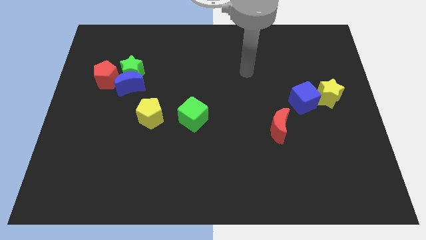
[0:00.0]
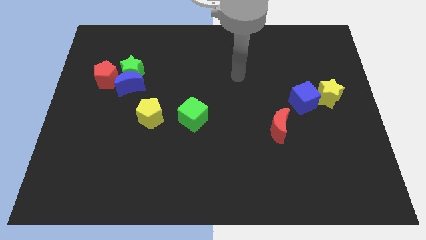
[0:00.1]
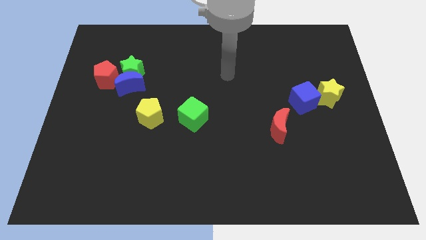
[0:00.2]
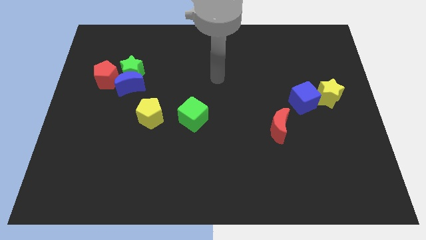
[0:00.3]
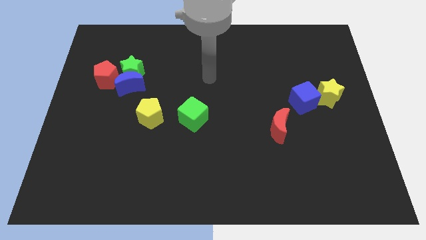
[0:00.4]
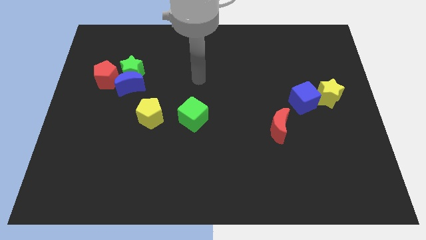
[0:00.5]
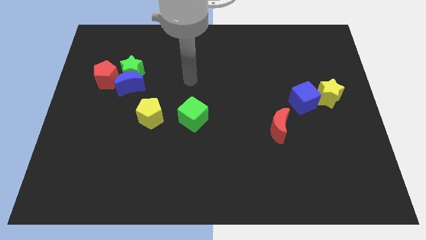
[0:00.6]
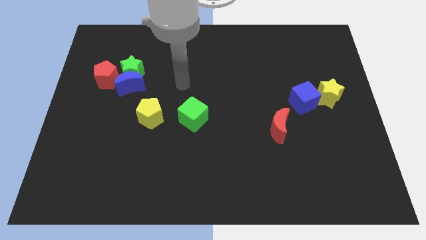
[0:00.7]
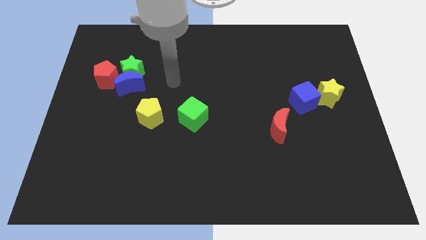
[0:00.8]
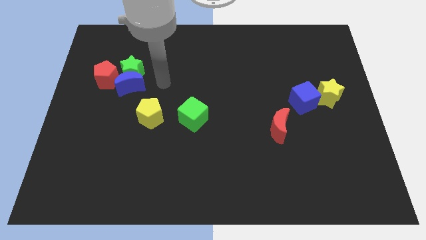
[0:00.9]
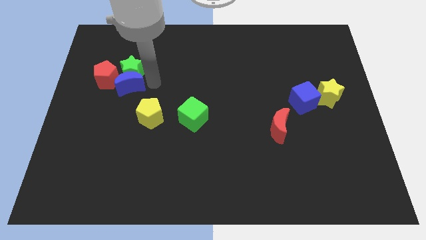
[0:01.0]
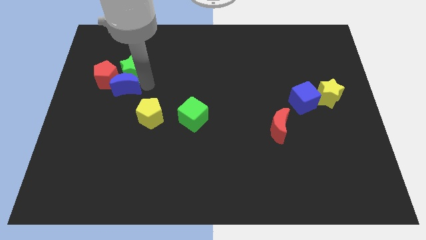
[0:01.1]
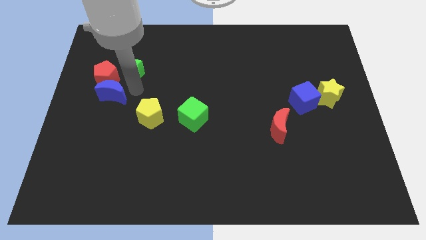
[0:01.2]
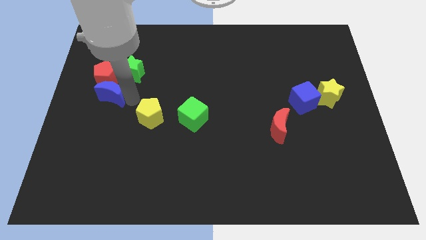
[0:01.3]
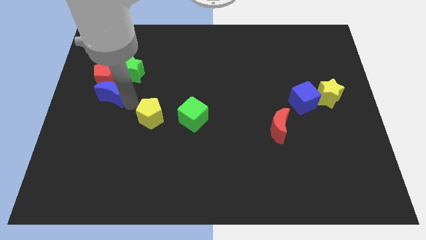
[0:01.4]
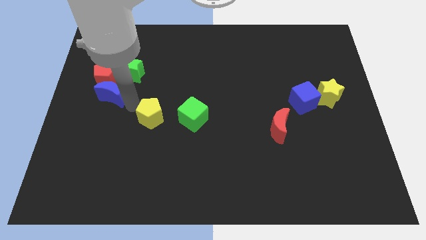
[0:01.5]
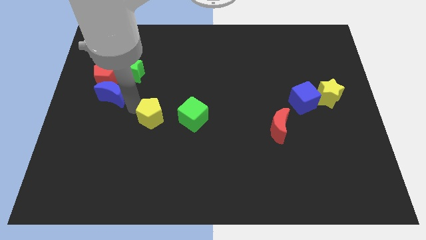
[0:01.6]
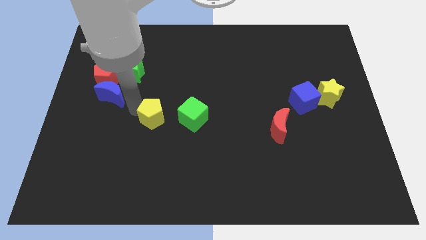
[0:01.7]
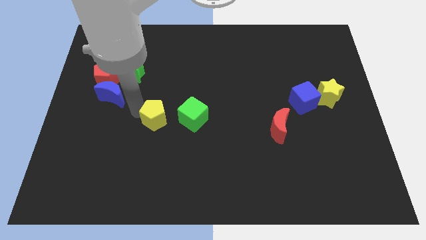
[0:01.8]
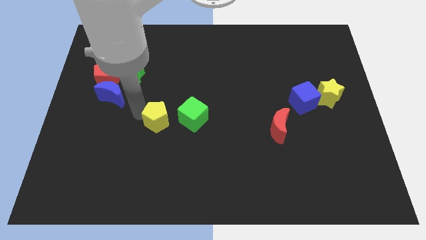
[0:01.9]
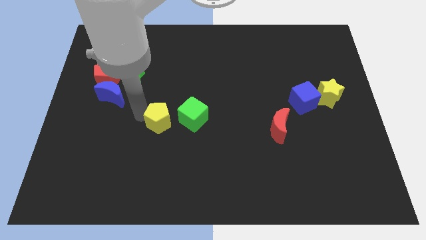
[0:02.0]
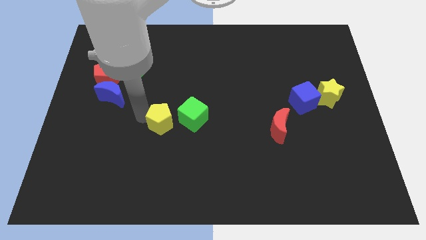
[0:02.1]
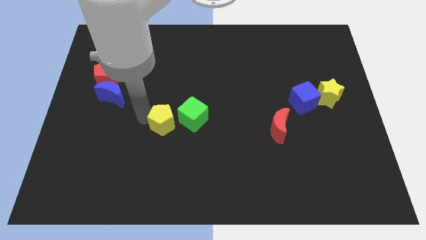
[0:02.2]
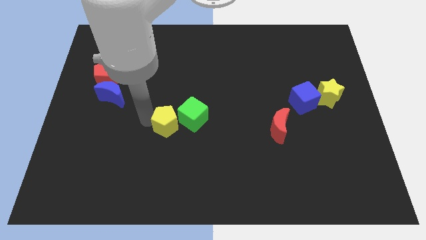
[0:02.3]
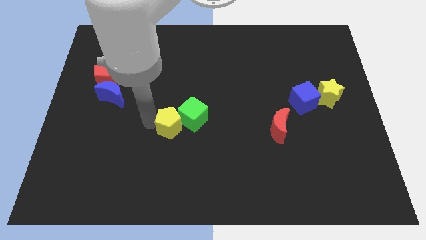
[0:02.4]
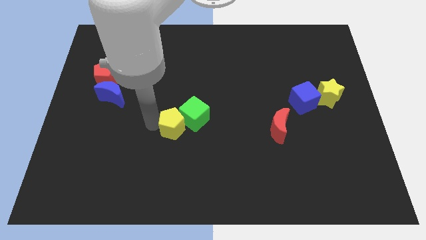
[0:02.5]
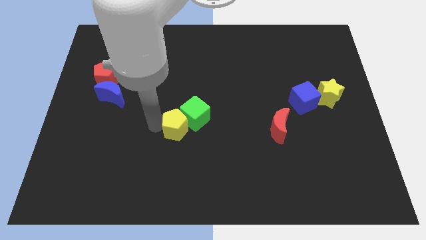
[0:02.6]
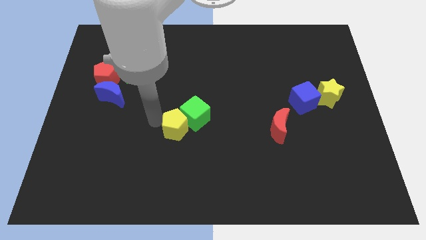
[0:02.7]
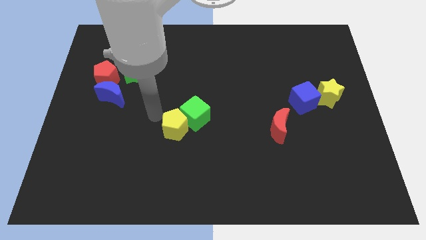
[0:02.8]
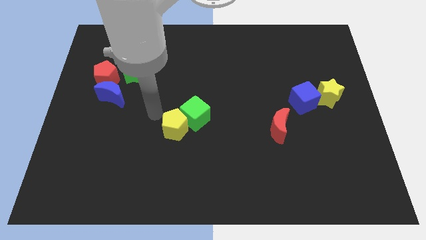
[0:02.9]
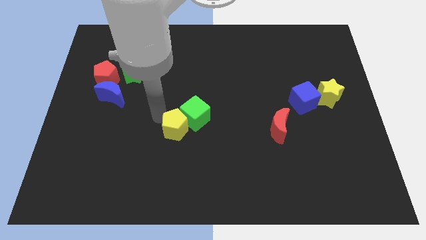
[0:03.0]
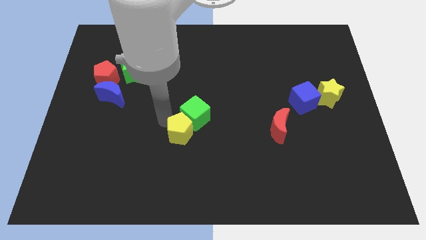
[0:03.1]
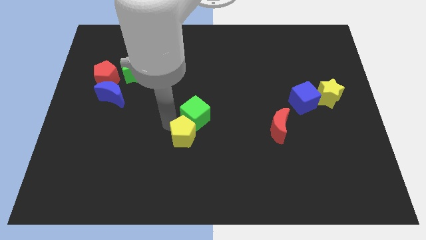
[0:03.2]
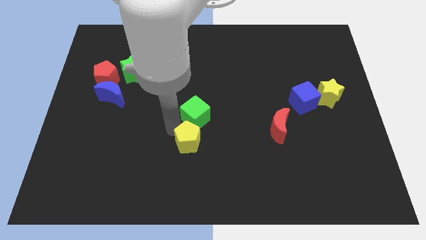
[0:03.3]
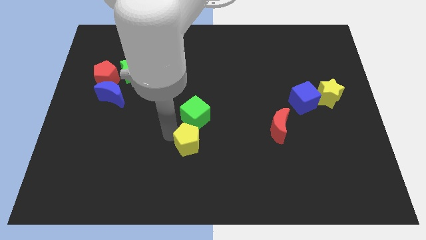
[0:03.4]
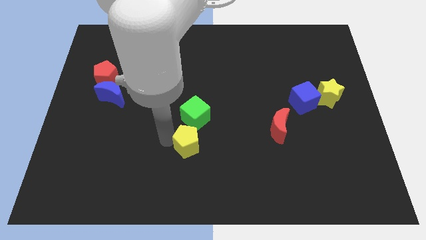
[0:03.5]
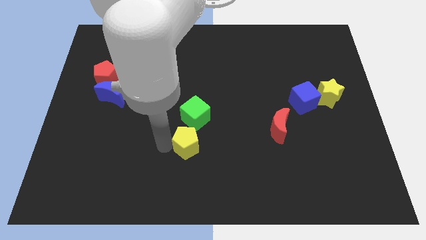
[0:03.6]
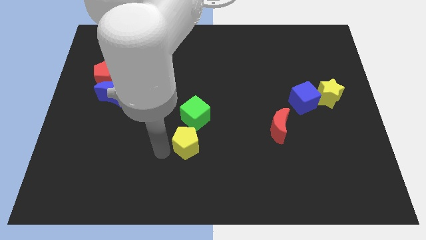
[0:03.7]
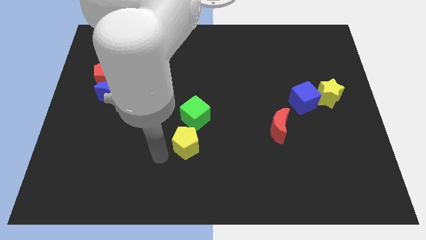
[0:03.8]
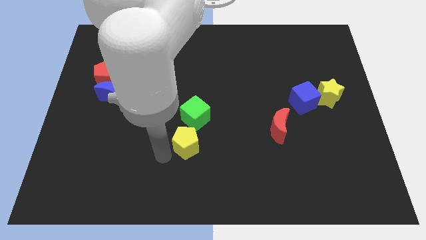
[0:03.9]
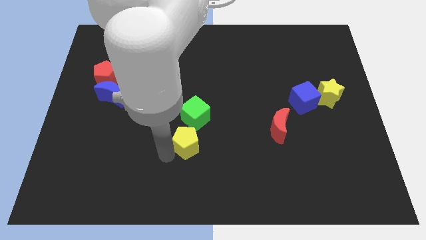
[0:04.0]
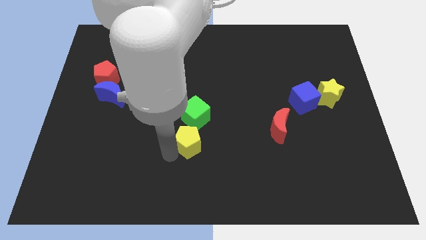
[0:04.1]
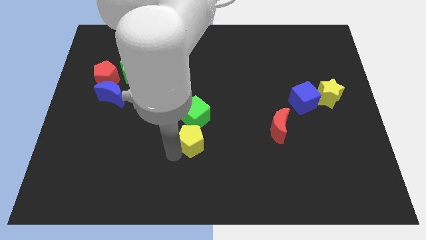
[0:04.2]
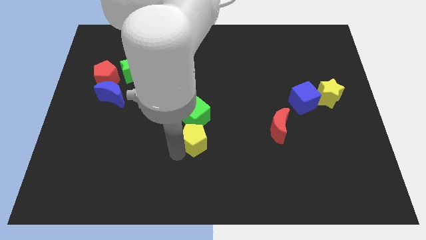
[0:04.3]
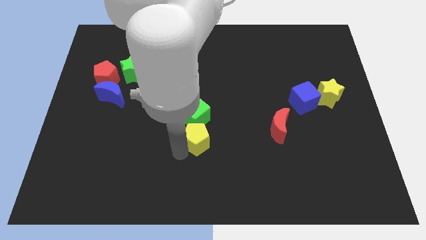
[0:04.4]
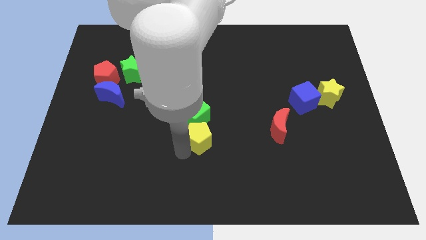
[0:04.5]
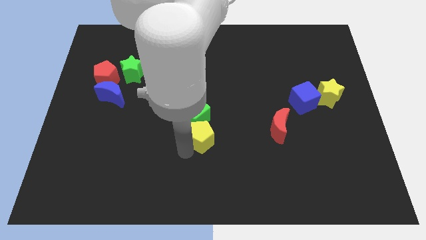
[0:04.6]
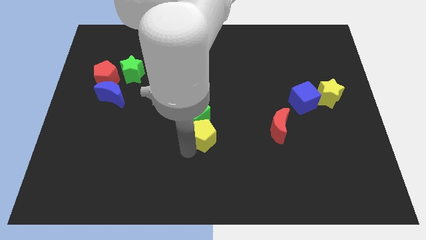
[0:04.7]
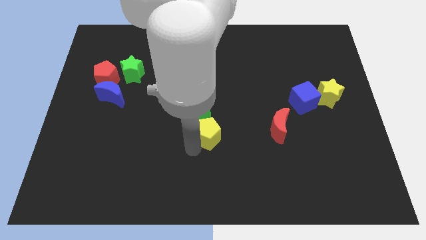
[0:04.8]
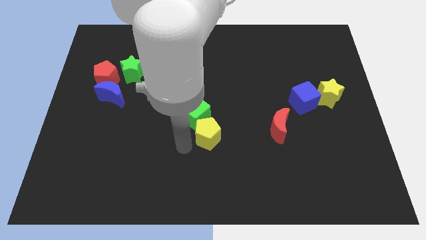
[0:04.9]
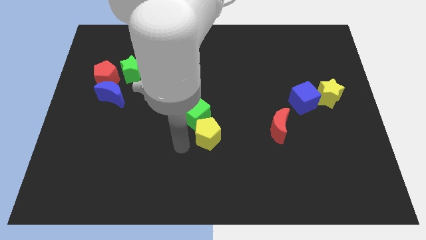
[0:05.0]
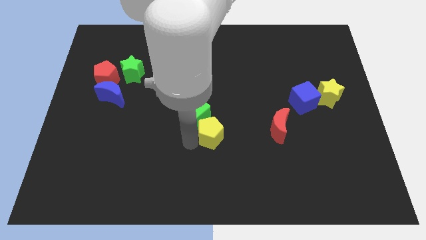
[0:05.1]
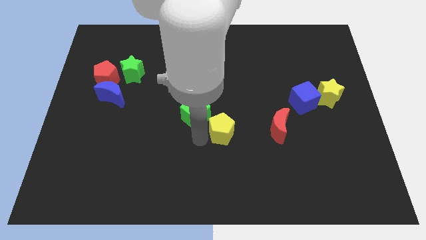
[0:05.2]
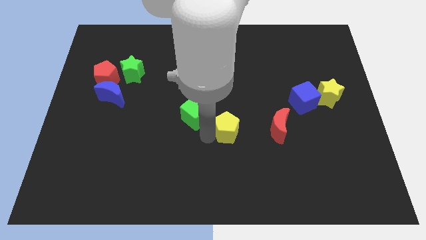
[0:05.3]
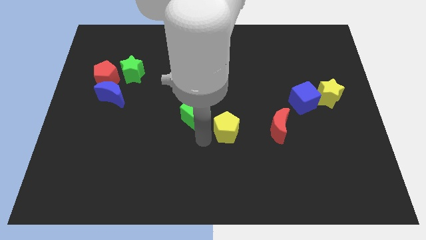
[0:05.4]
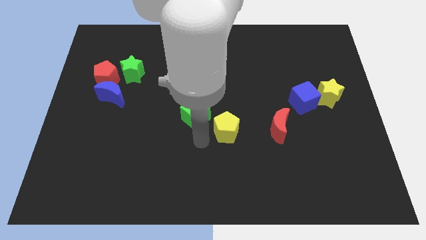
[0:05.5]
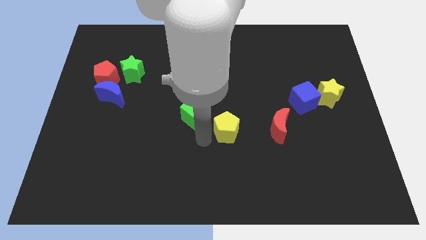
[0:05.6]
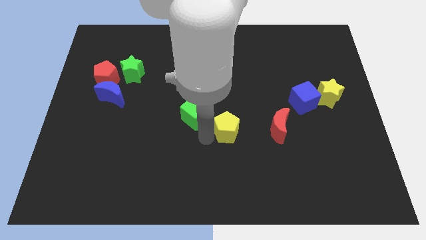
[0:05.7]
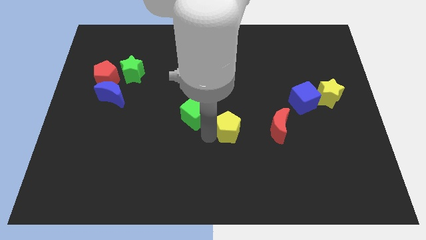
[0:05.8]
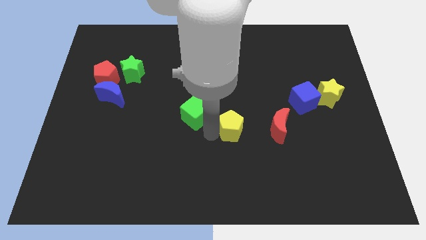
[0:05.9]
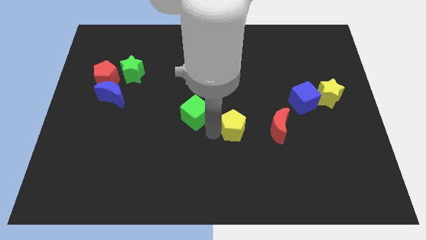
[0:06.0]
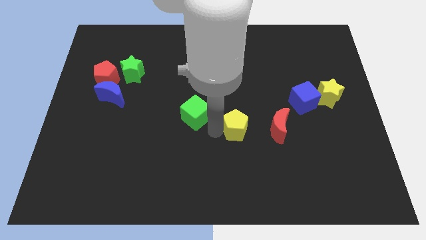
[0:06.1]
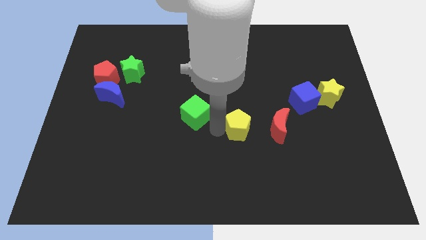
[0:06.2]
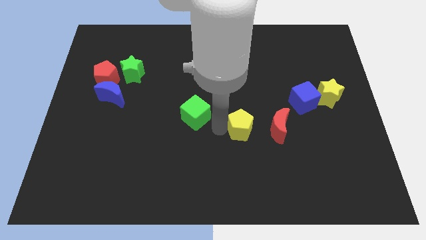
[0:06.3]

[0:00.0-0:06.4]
slide the yellow pentagon right

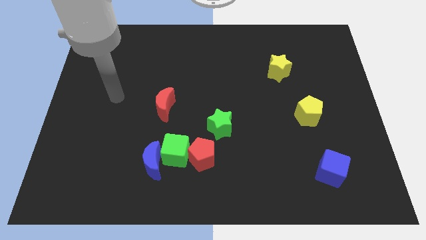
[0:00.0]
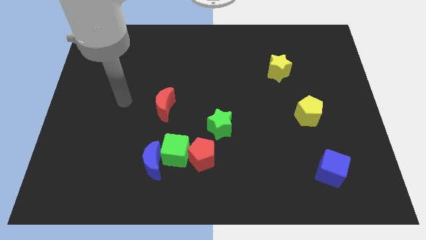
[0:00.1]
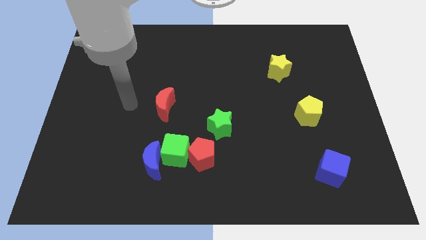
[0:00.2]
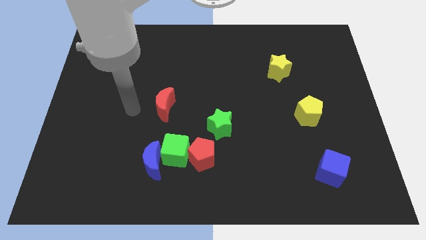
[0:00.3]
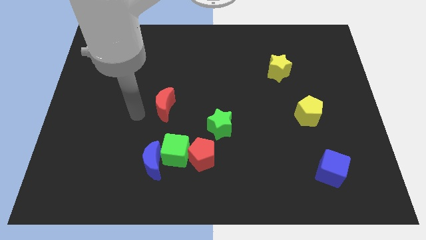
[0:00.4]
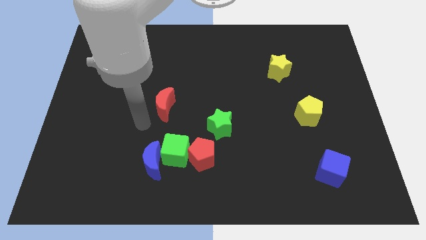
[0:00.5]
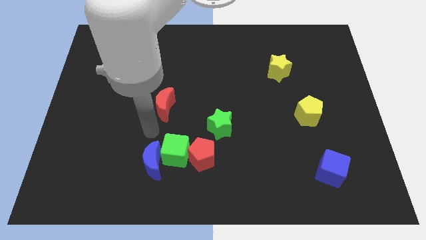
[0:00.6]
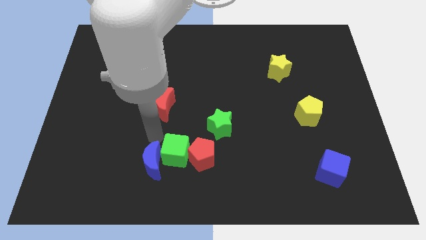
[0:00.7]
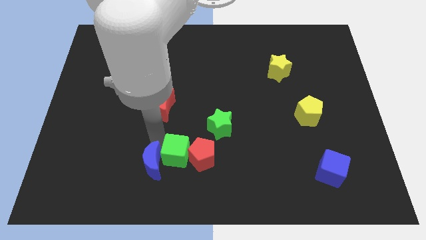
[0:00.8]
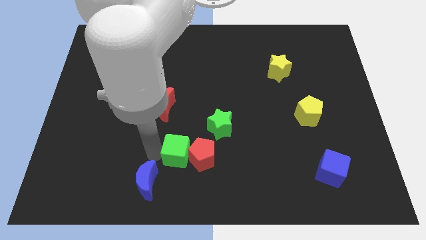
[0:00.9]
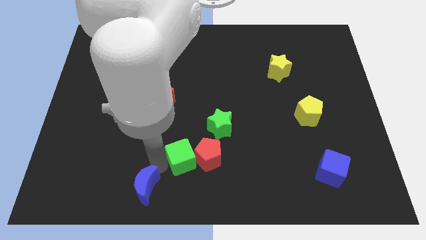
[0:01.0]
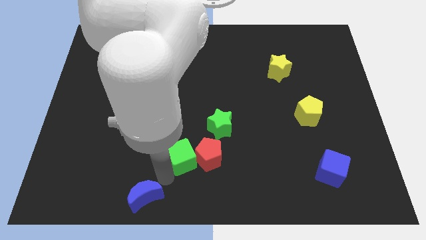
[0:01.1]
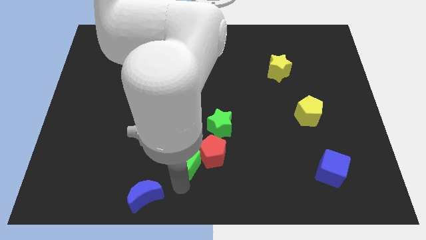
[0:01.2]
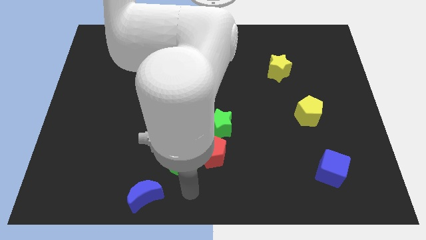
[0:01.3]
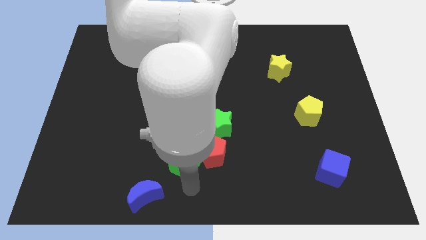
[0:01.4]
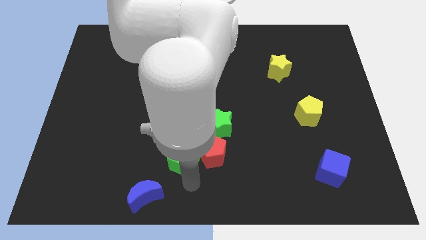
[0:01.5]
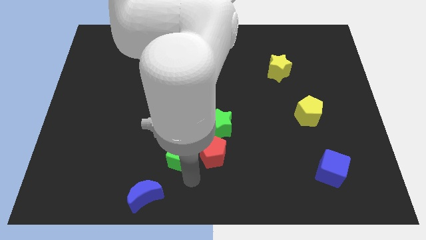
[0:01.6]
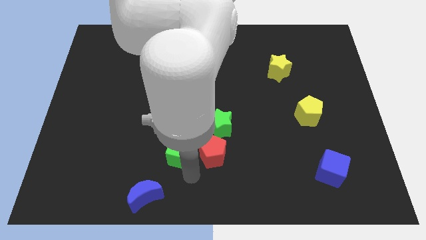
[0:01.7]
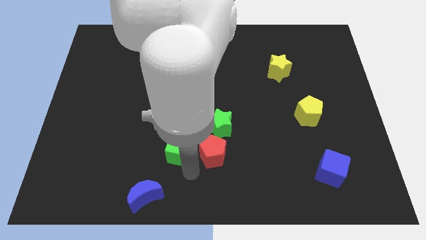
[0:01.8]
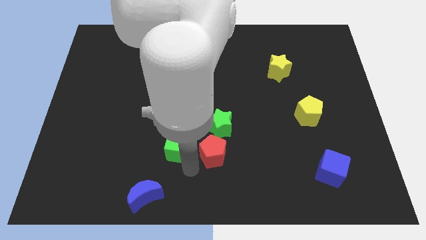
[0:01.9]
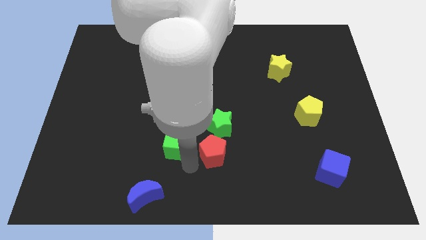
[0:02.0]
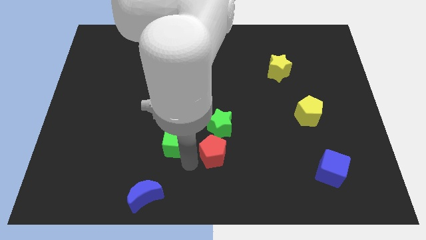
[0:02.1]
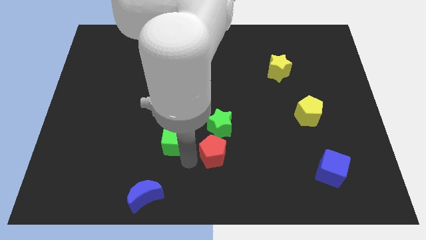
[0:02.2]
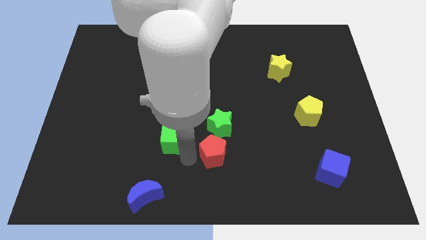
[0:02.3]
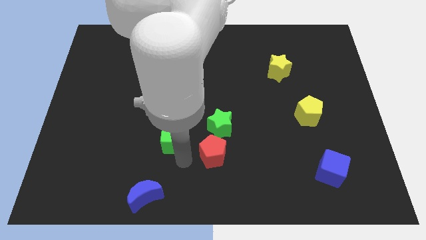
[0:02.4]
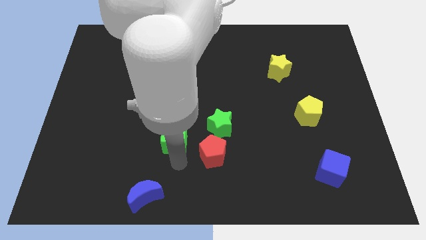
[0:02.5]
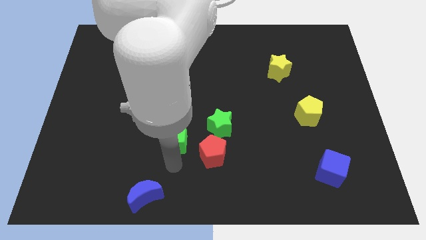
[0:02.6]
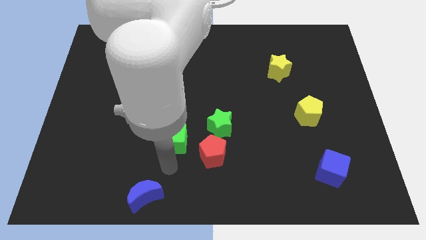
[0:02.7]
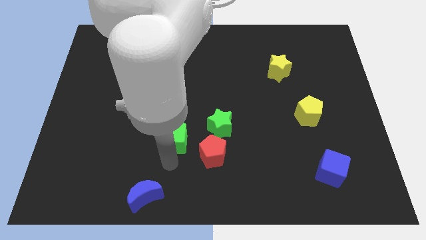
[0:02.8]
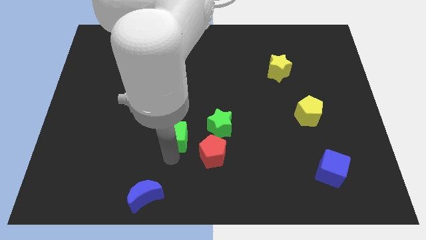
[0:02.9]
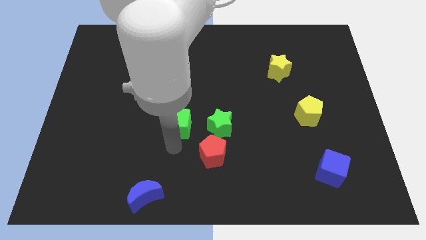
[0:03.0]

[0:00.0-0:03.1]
push the green cube a little upwards
